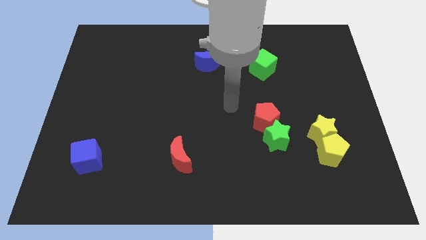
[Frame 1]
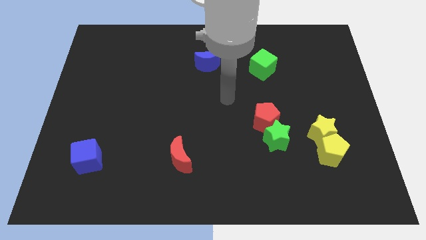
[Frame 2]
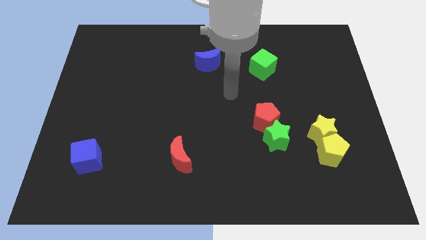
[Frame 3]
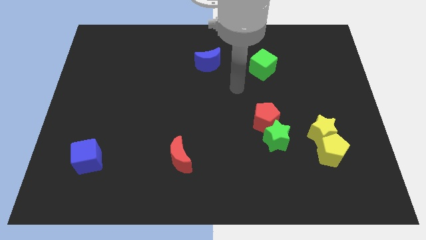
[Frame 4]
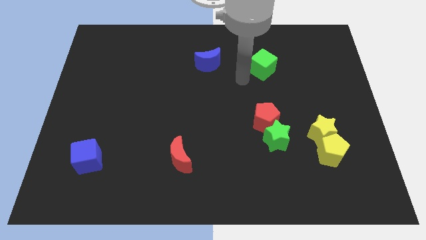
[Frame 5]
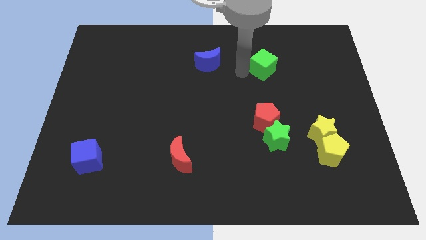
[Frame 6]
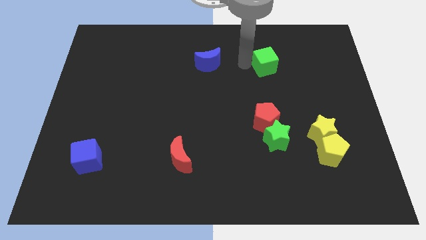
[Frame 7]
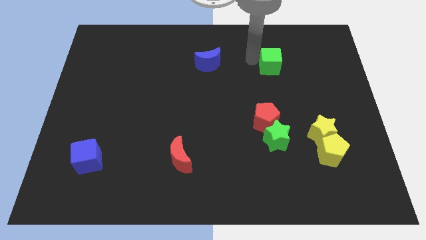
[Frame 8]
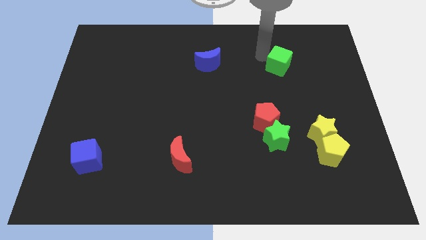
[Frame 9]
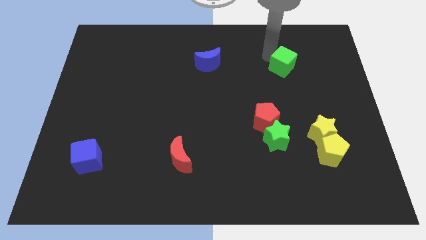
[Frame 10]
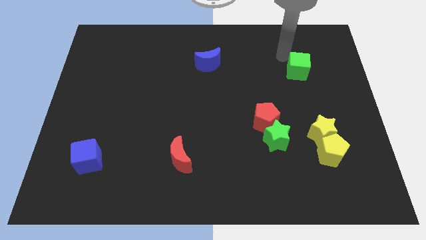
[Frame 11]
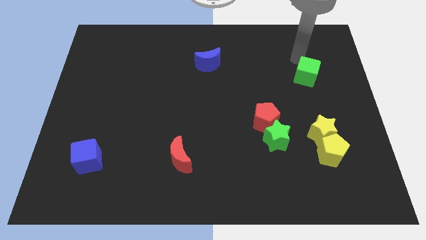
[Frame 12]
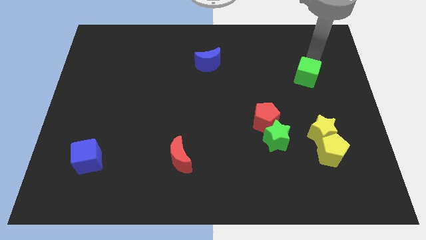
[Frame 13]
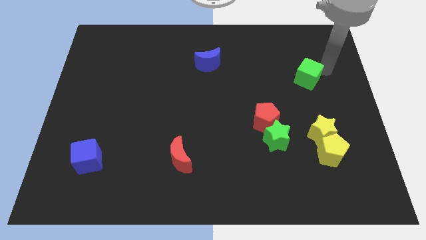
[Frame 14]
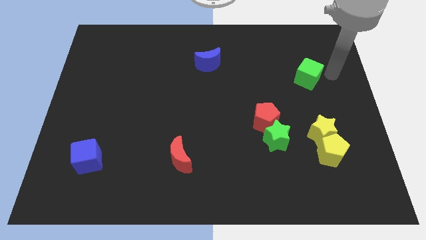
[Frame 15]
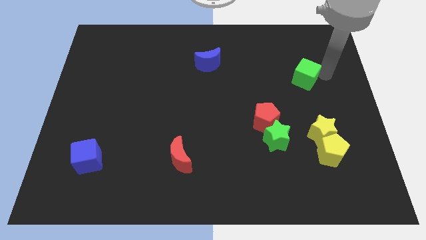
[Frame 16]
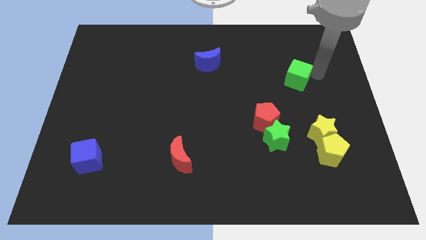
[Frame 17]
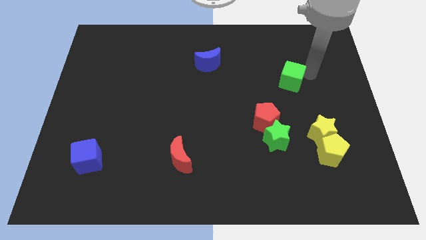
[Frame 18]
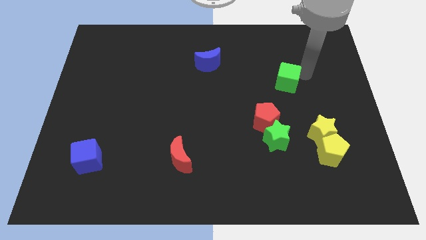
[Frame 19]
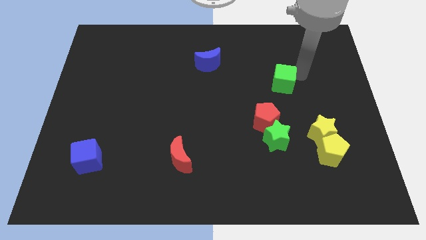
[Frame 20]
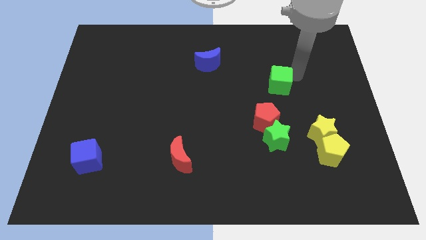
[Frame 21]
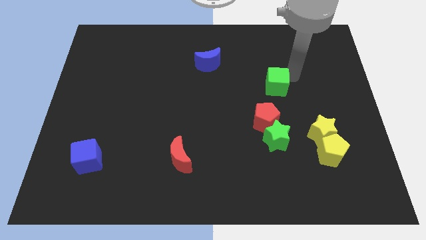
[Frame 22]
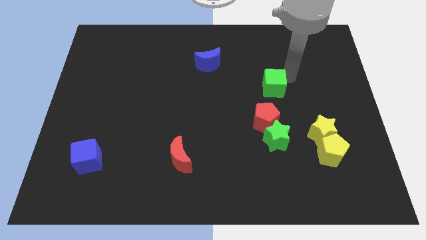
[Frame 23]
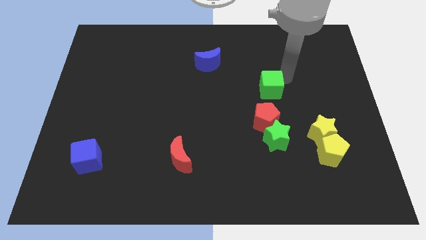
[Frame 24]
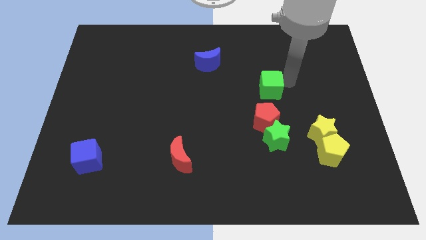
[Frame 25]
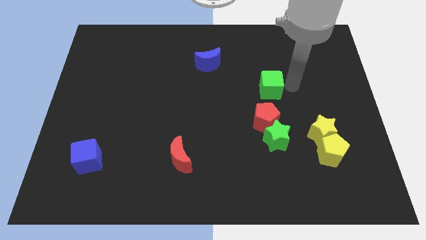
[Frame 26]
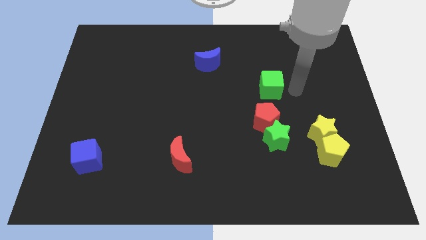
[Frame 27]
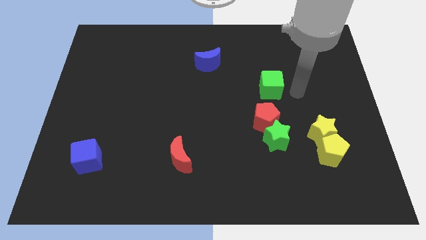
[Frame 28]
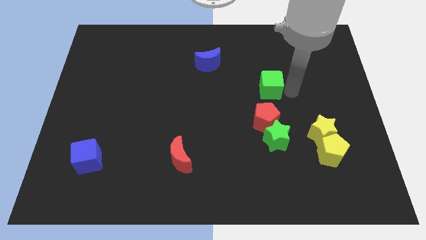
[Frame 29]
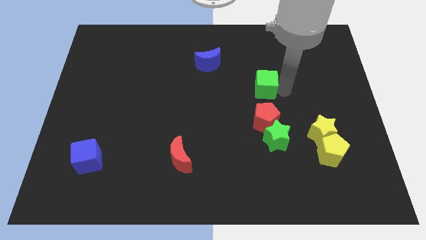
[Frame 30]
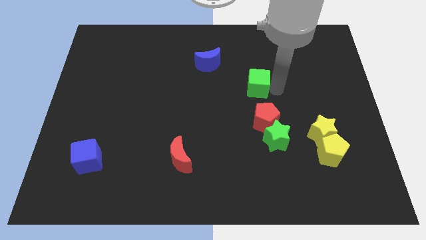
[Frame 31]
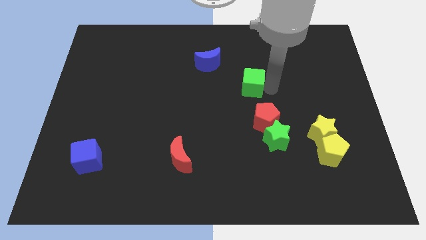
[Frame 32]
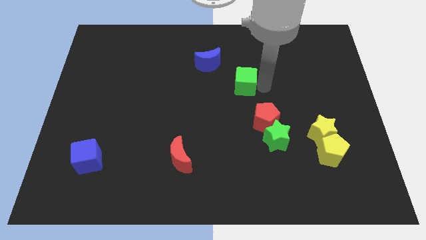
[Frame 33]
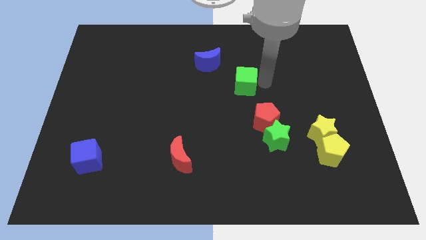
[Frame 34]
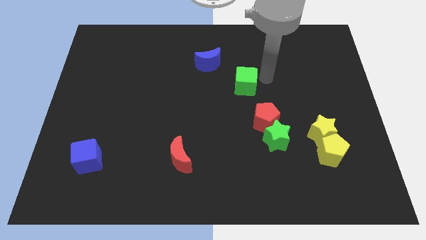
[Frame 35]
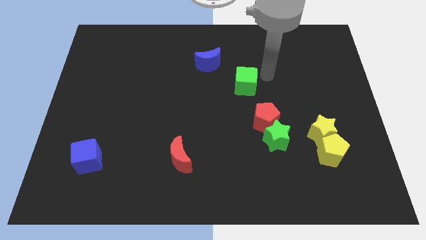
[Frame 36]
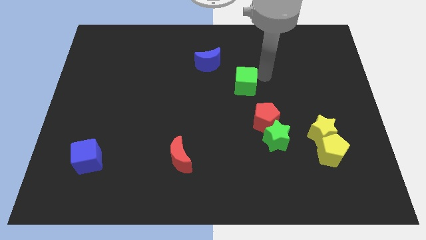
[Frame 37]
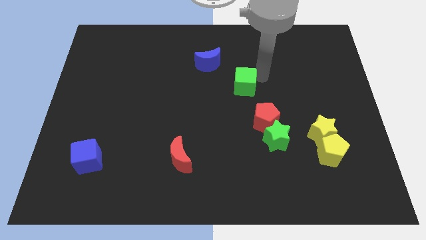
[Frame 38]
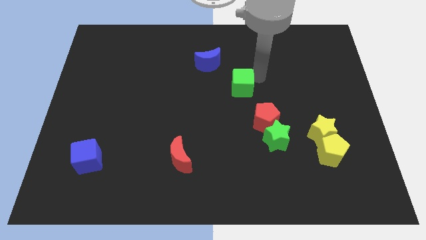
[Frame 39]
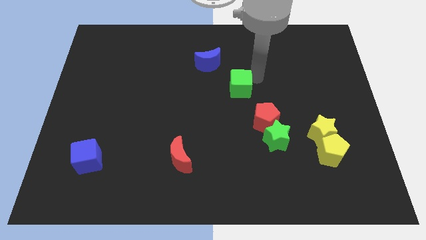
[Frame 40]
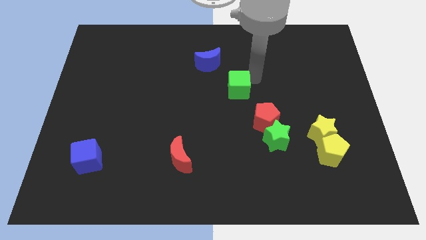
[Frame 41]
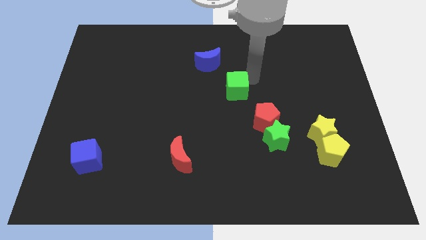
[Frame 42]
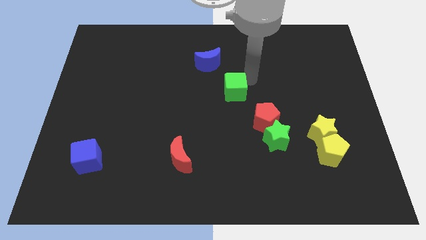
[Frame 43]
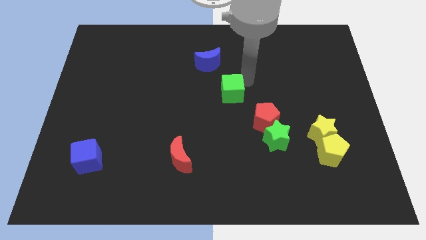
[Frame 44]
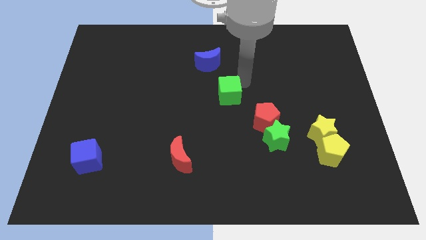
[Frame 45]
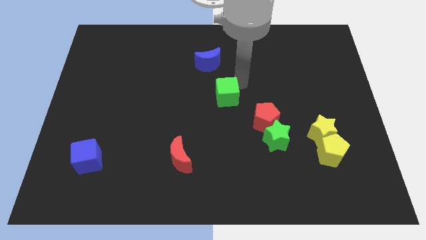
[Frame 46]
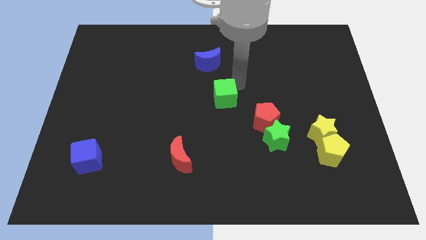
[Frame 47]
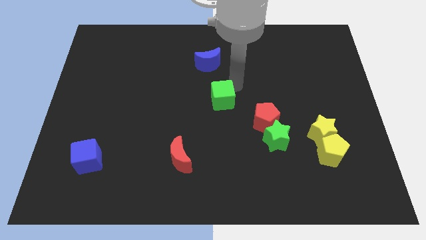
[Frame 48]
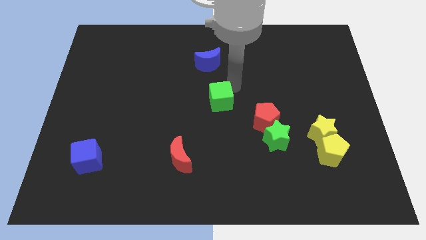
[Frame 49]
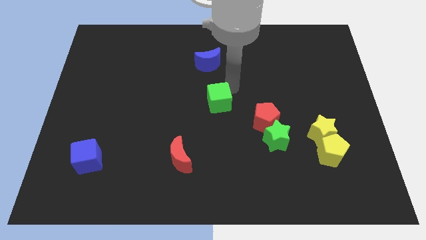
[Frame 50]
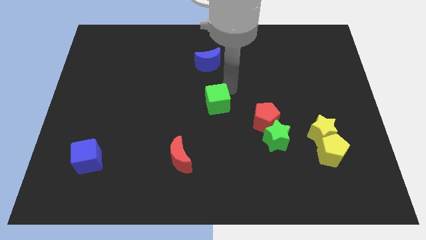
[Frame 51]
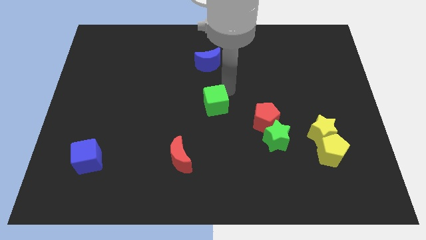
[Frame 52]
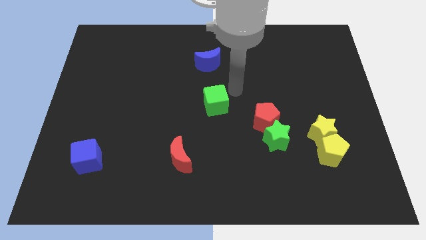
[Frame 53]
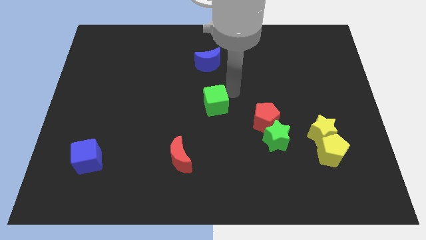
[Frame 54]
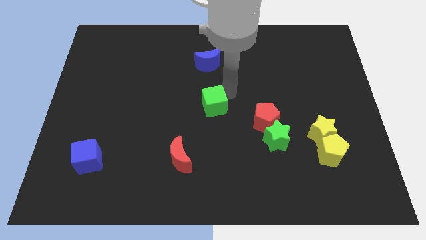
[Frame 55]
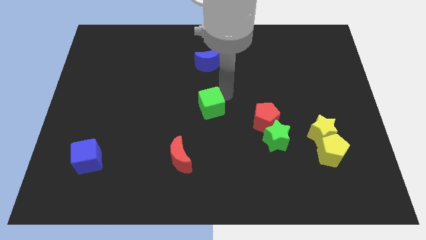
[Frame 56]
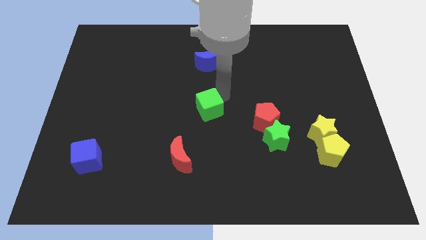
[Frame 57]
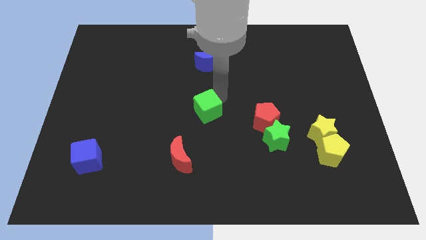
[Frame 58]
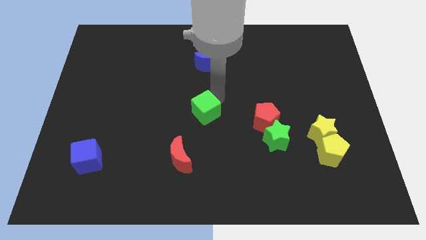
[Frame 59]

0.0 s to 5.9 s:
slide the green cube downwards and to the left

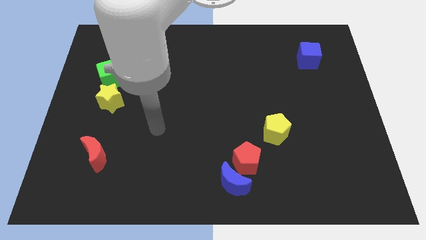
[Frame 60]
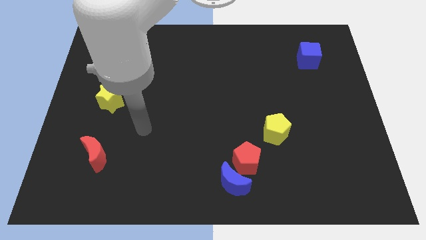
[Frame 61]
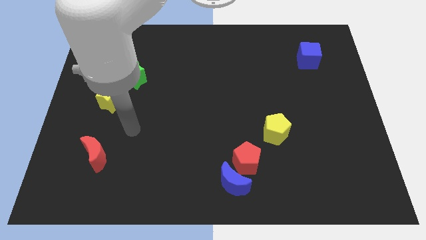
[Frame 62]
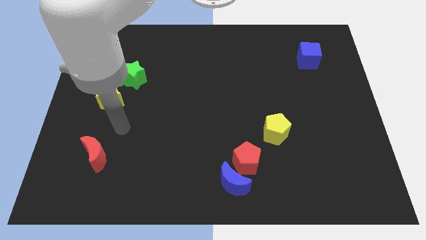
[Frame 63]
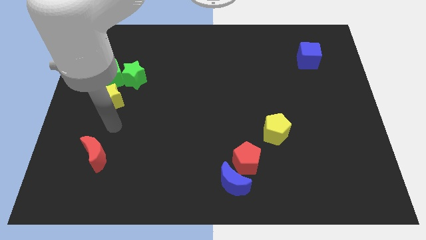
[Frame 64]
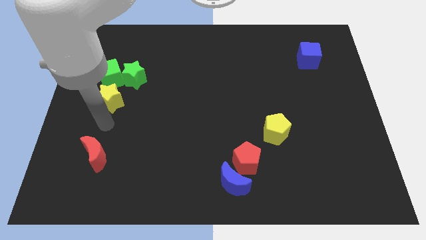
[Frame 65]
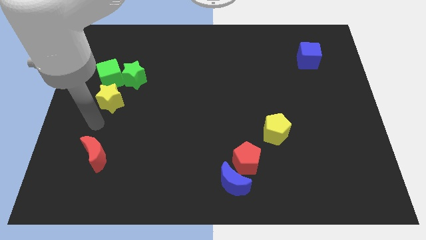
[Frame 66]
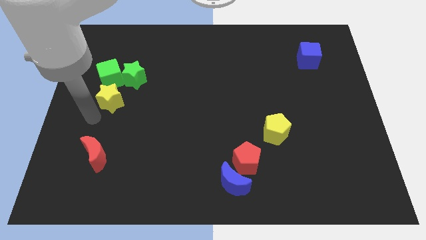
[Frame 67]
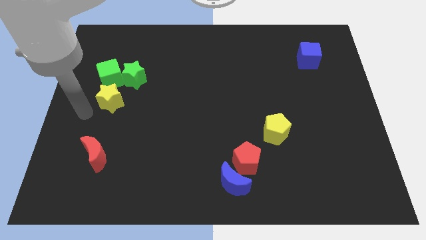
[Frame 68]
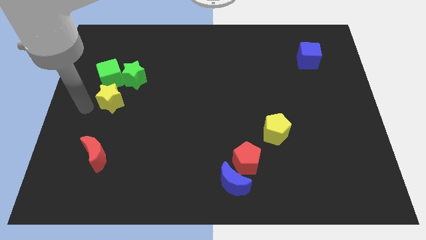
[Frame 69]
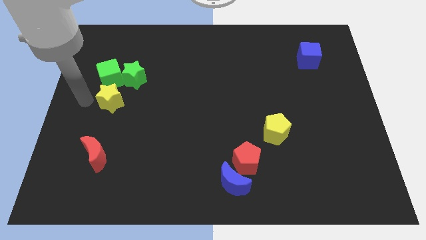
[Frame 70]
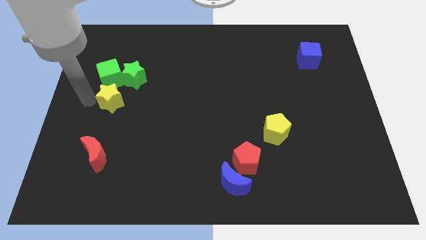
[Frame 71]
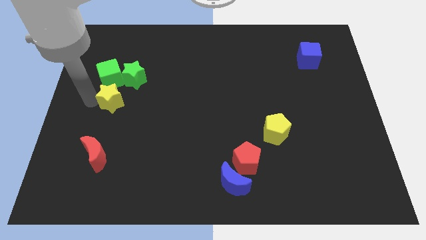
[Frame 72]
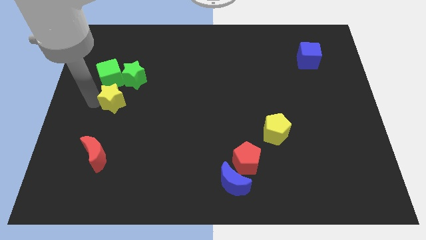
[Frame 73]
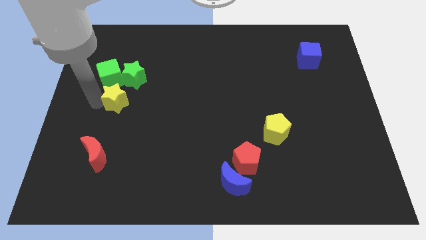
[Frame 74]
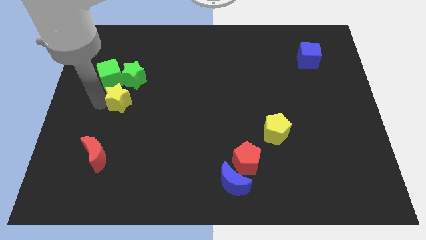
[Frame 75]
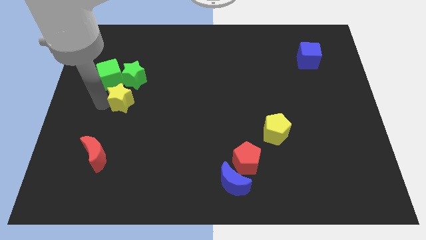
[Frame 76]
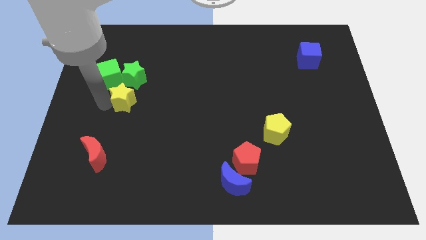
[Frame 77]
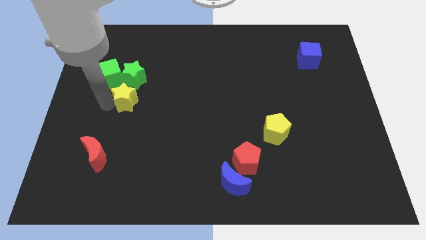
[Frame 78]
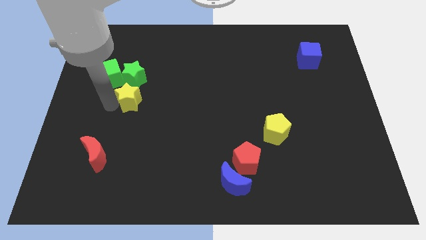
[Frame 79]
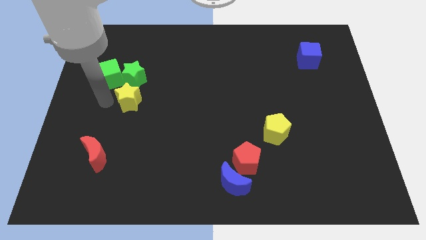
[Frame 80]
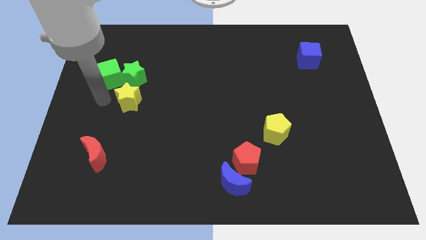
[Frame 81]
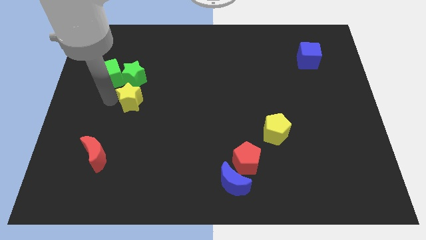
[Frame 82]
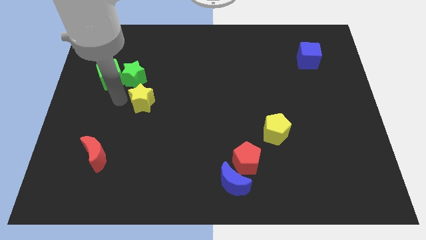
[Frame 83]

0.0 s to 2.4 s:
slide the yellow star slightly to the right
